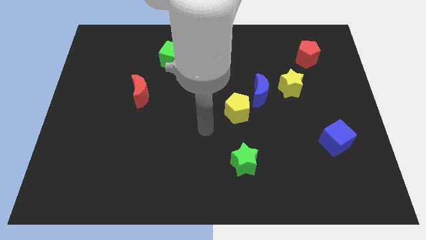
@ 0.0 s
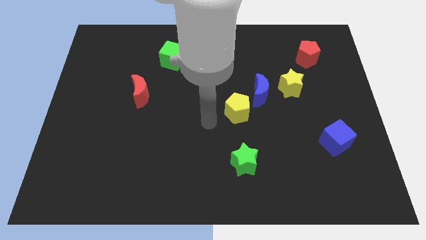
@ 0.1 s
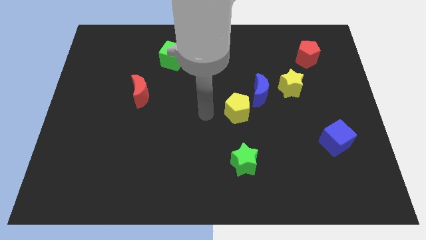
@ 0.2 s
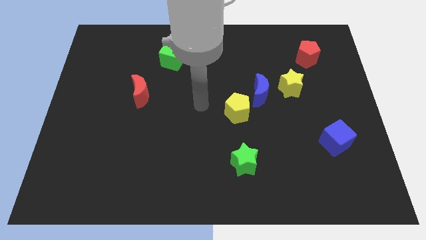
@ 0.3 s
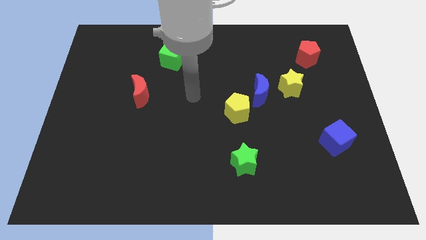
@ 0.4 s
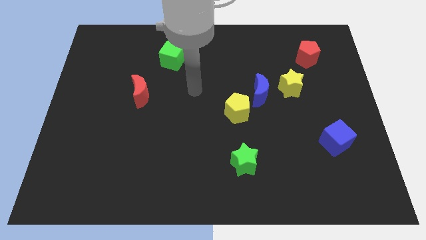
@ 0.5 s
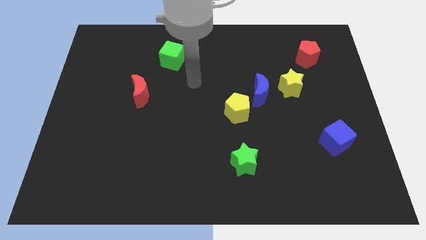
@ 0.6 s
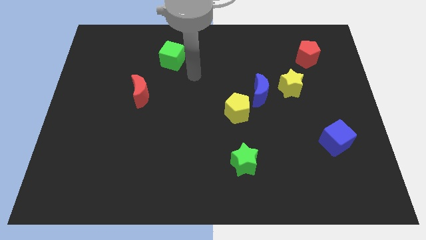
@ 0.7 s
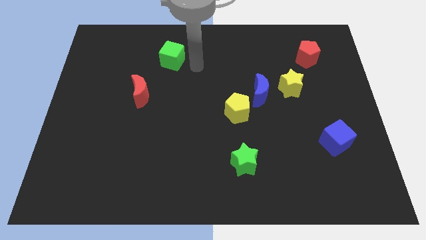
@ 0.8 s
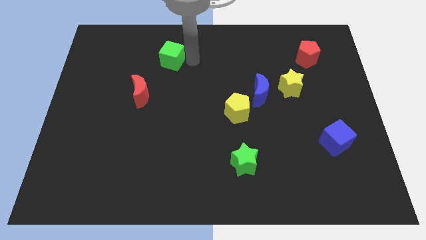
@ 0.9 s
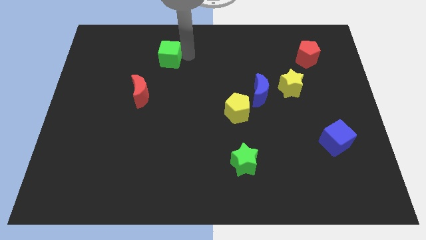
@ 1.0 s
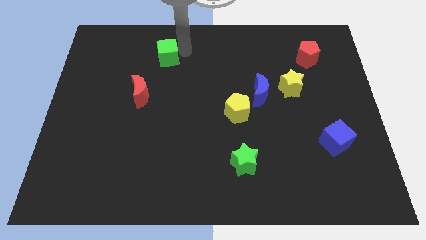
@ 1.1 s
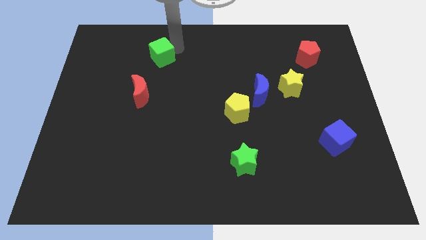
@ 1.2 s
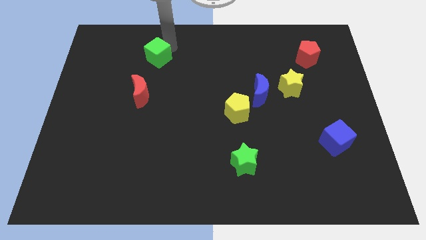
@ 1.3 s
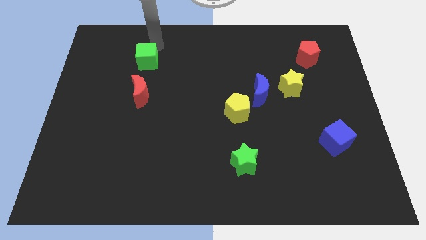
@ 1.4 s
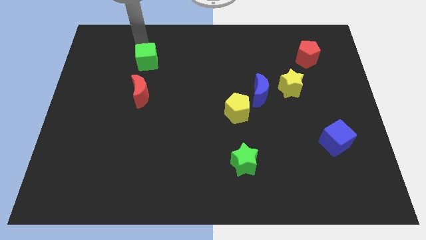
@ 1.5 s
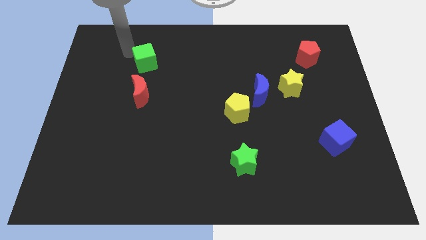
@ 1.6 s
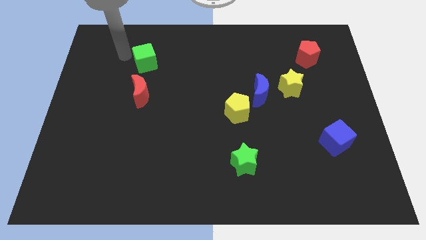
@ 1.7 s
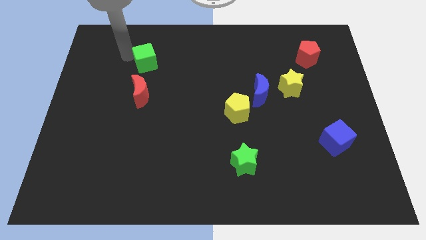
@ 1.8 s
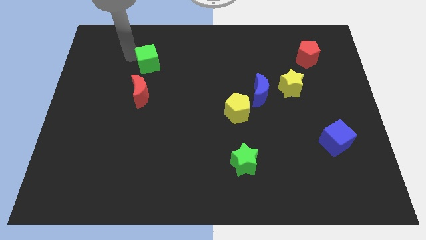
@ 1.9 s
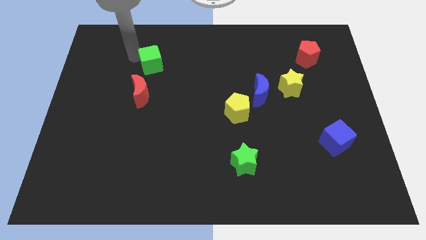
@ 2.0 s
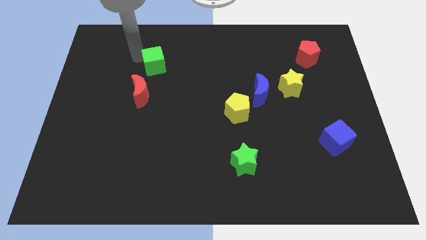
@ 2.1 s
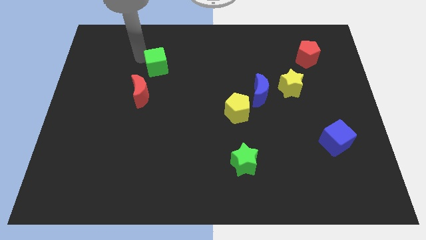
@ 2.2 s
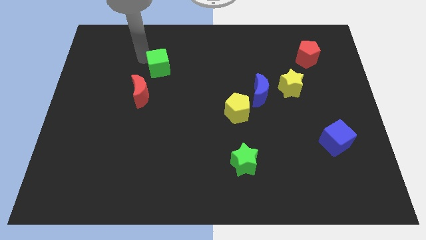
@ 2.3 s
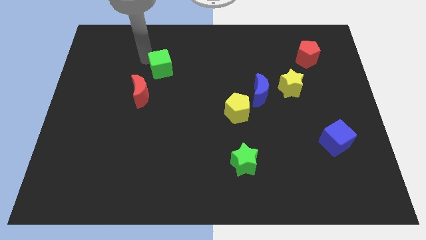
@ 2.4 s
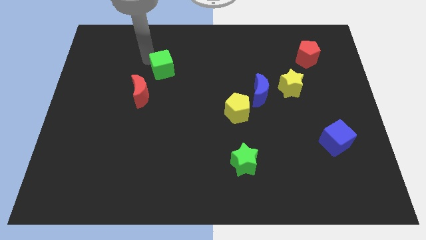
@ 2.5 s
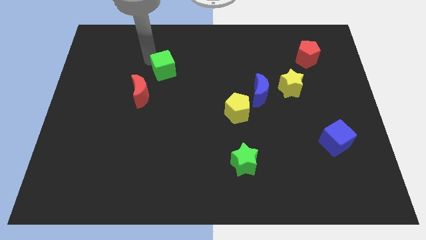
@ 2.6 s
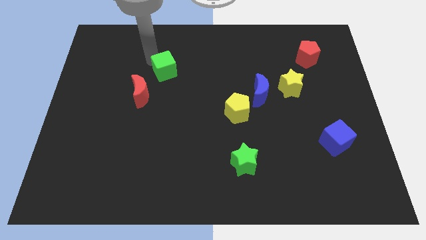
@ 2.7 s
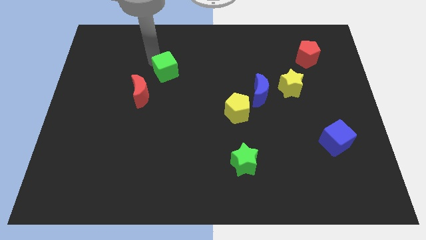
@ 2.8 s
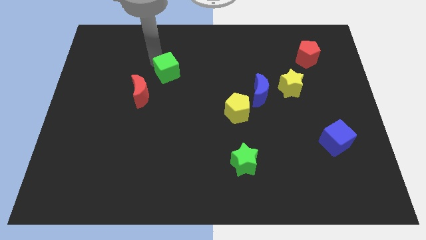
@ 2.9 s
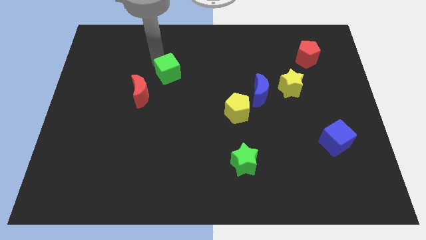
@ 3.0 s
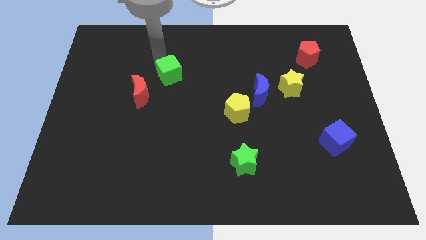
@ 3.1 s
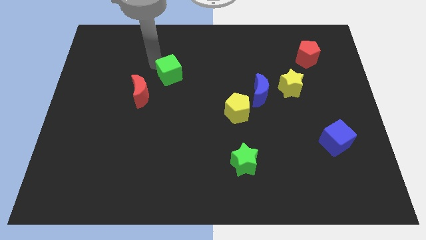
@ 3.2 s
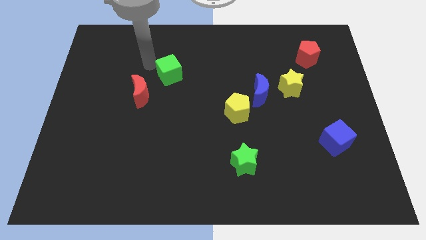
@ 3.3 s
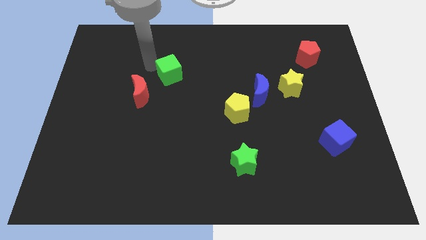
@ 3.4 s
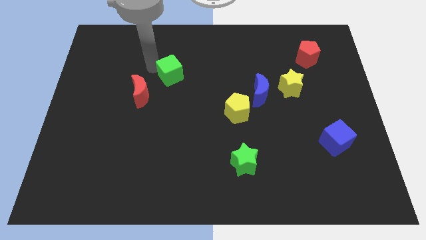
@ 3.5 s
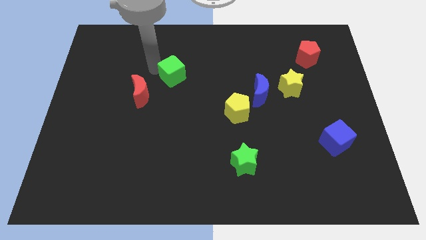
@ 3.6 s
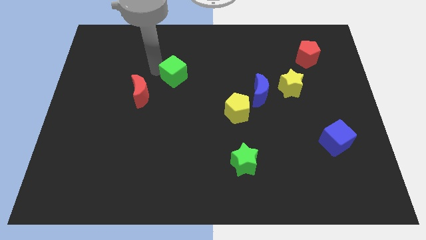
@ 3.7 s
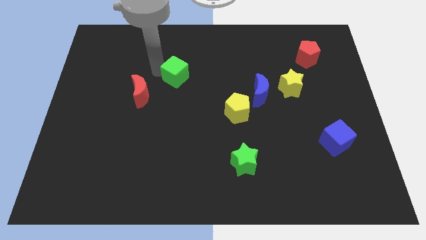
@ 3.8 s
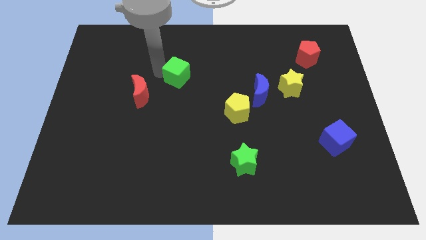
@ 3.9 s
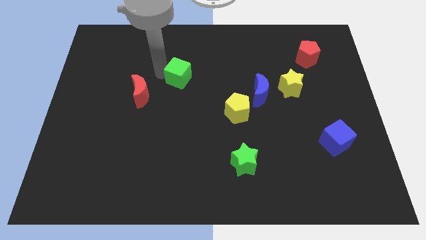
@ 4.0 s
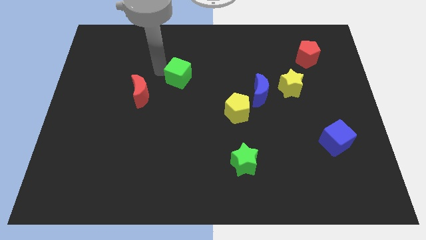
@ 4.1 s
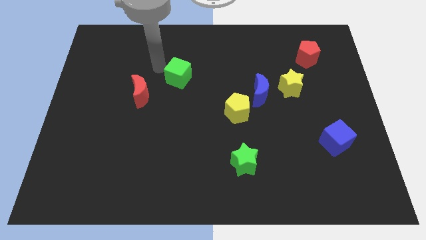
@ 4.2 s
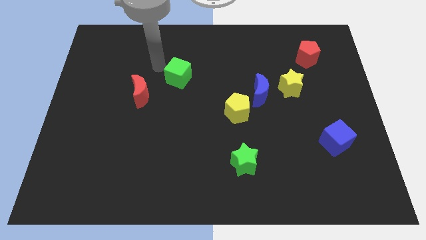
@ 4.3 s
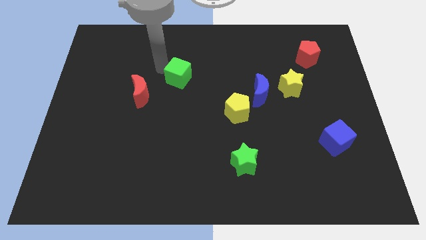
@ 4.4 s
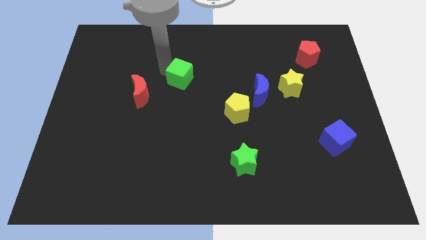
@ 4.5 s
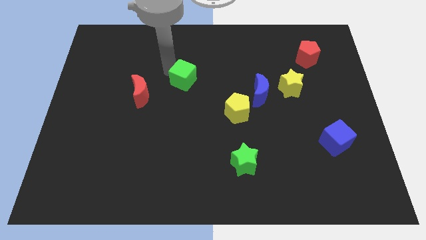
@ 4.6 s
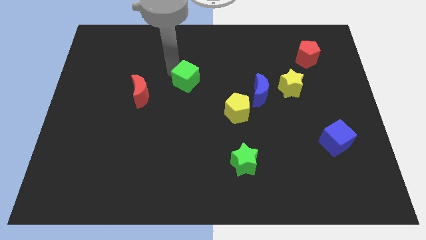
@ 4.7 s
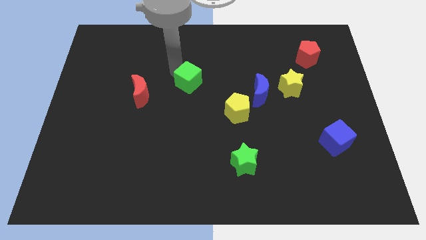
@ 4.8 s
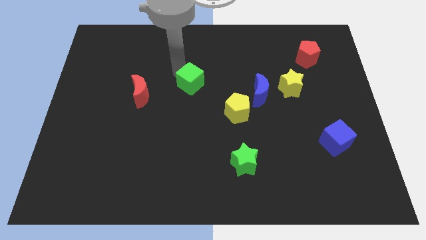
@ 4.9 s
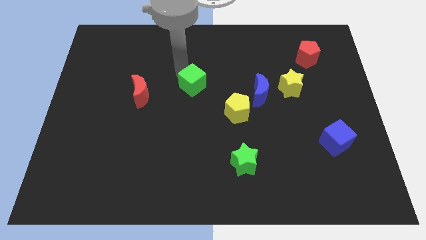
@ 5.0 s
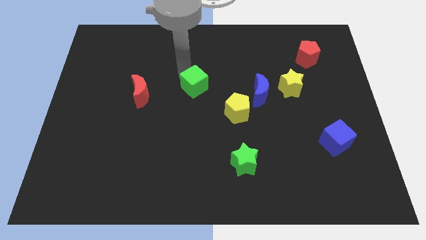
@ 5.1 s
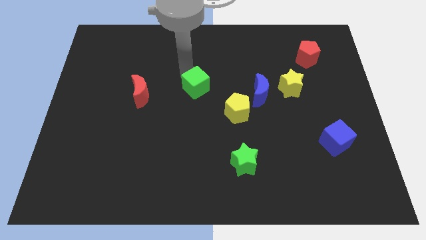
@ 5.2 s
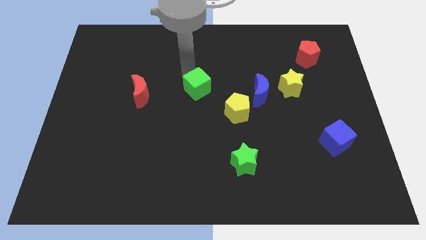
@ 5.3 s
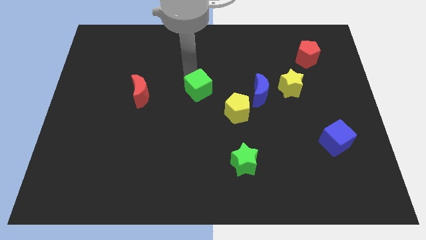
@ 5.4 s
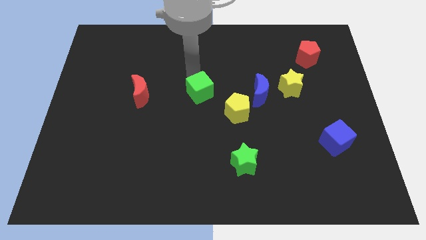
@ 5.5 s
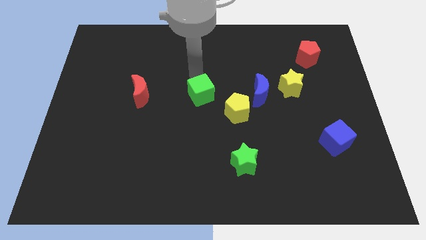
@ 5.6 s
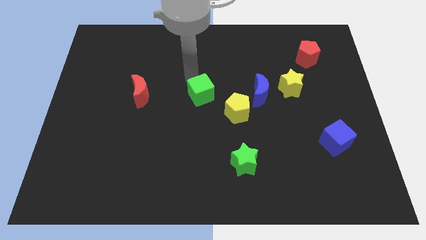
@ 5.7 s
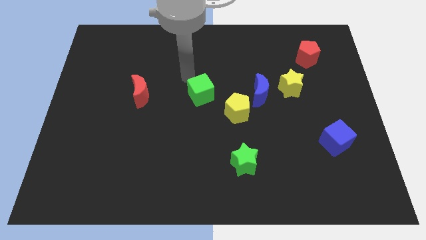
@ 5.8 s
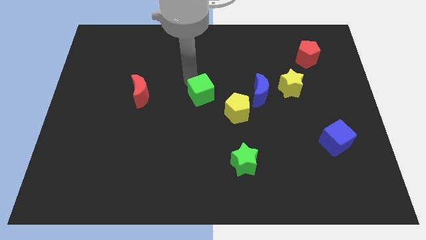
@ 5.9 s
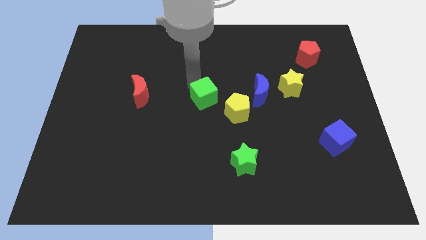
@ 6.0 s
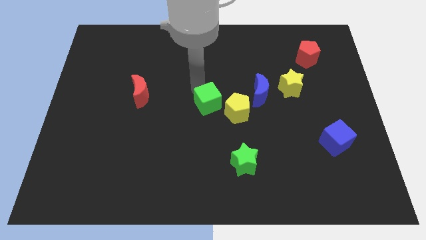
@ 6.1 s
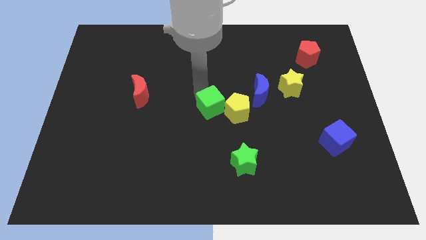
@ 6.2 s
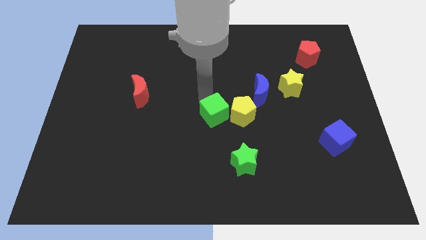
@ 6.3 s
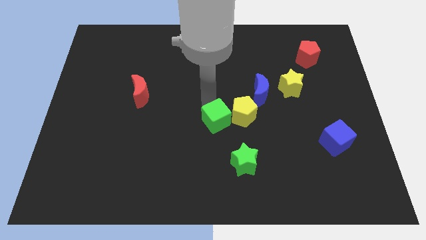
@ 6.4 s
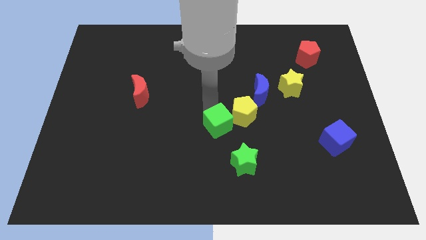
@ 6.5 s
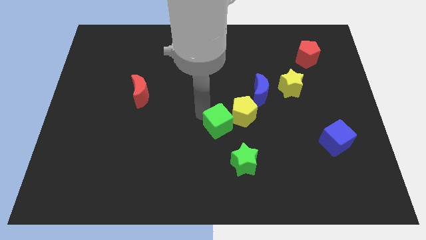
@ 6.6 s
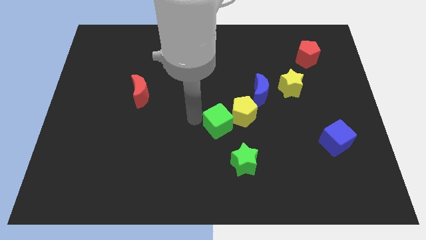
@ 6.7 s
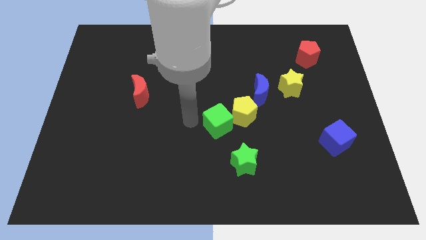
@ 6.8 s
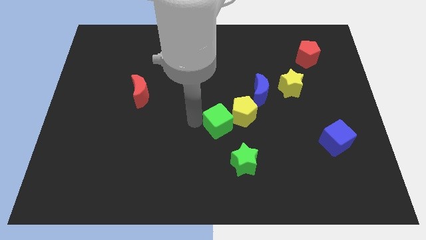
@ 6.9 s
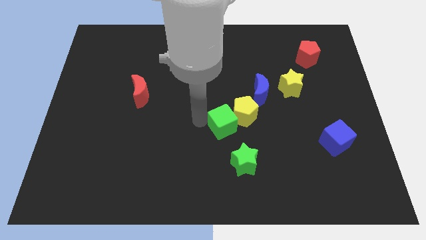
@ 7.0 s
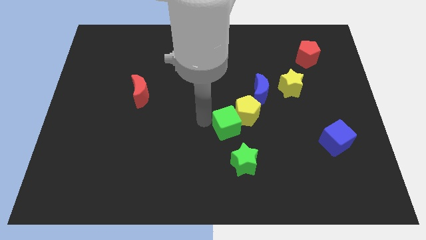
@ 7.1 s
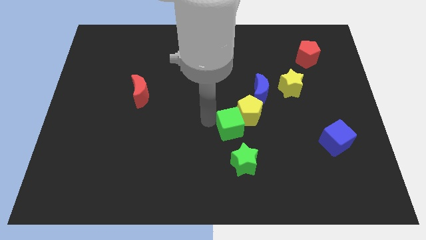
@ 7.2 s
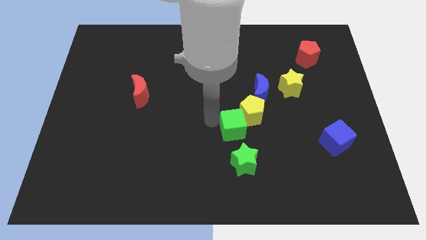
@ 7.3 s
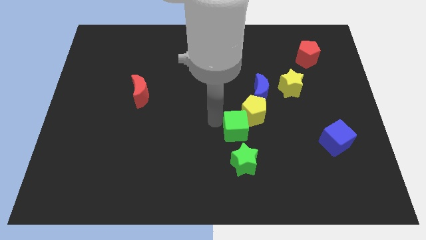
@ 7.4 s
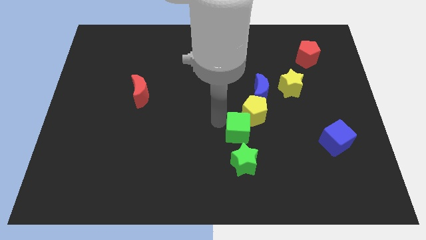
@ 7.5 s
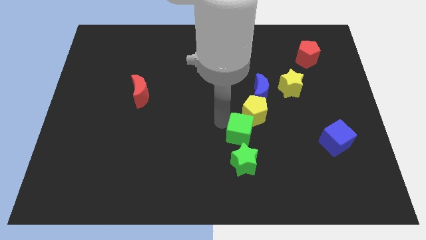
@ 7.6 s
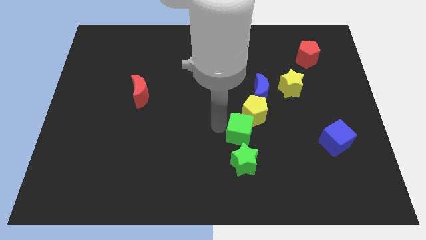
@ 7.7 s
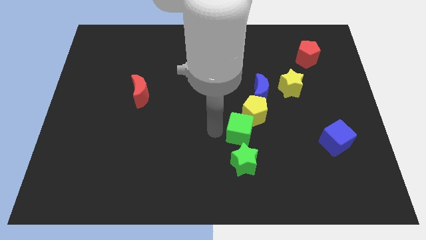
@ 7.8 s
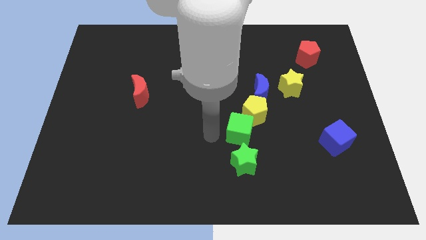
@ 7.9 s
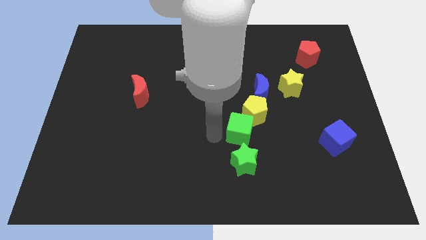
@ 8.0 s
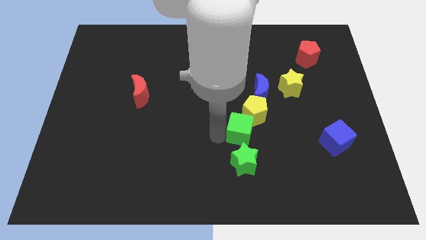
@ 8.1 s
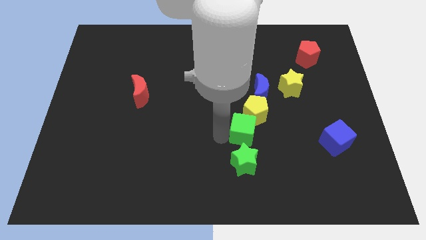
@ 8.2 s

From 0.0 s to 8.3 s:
slide the green cube below the blue moon
